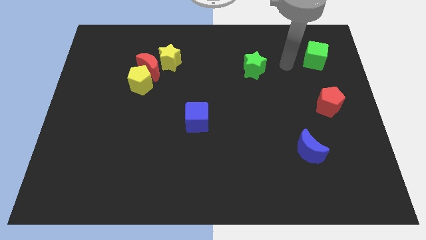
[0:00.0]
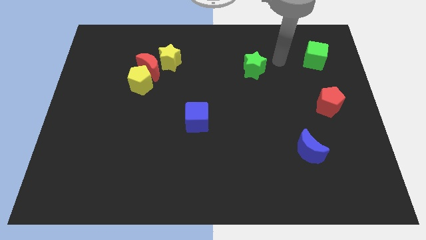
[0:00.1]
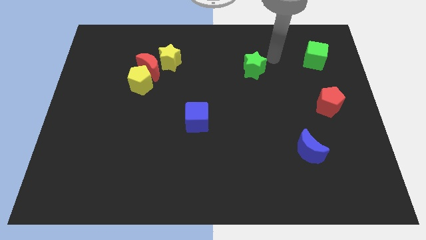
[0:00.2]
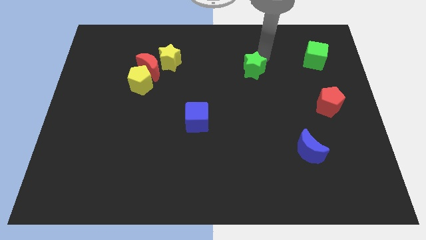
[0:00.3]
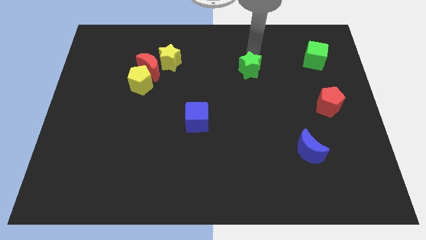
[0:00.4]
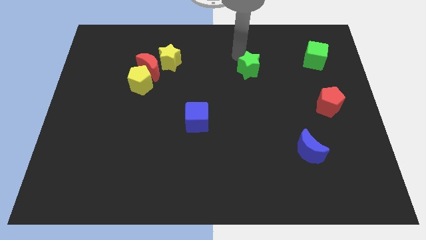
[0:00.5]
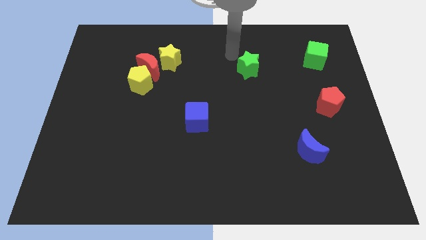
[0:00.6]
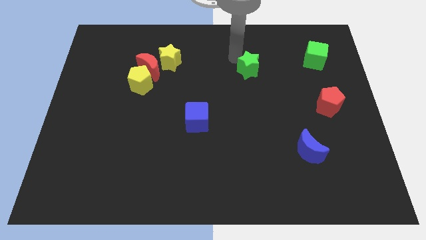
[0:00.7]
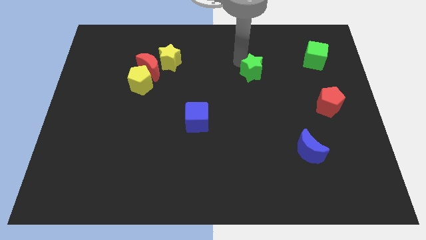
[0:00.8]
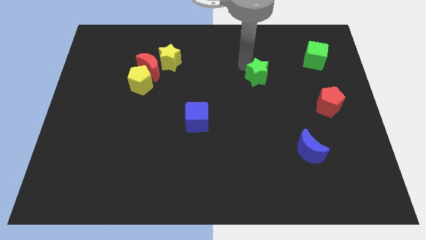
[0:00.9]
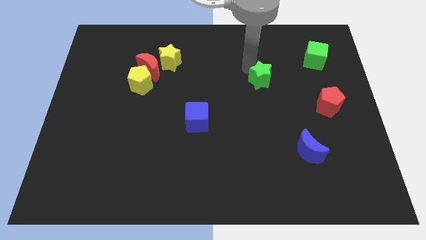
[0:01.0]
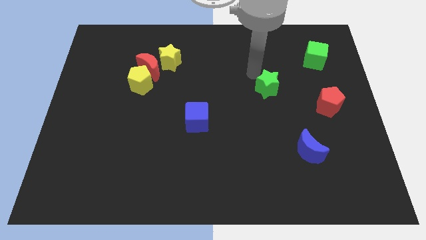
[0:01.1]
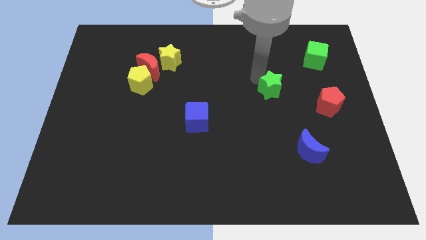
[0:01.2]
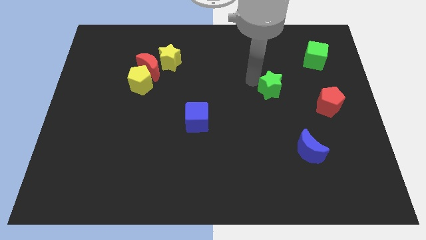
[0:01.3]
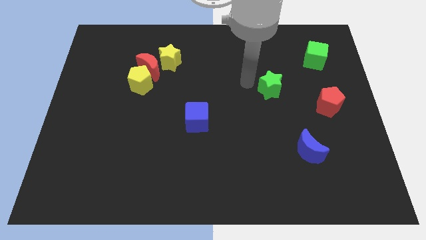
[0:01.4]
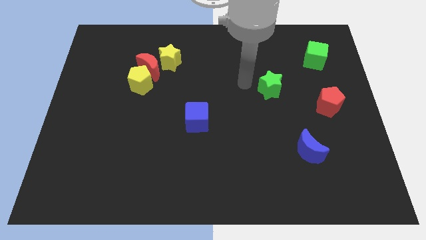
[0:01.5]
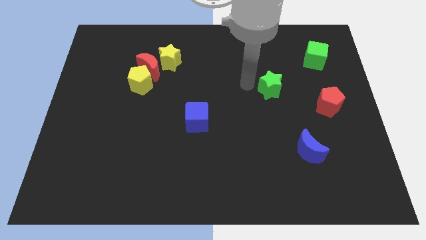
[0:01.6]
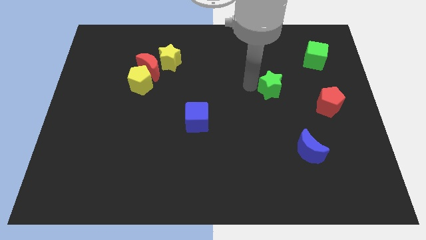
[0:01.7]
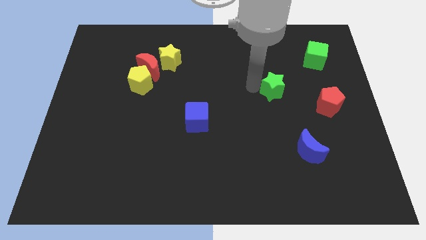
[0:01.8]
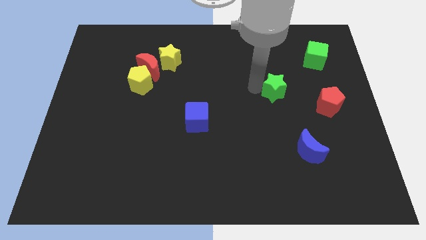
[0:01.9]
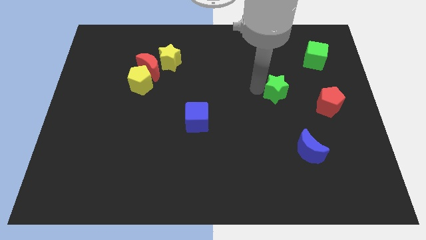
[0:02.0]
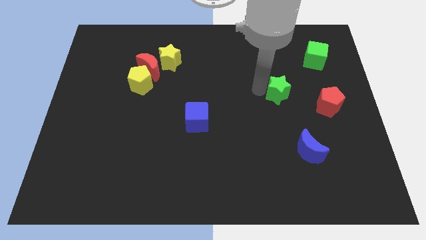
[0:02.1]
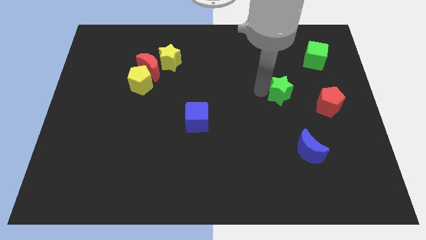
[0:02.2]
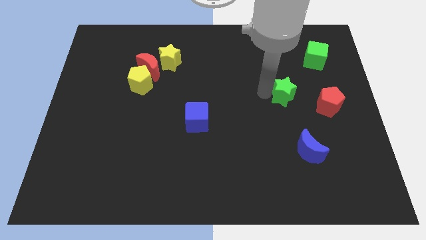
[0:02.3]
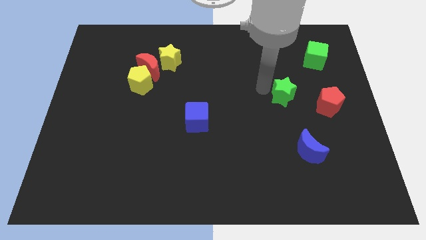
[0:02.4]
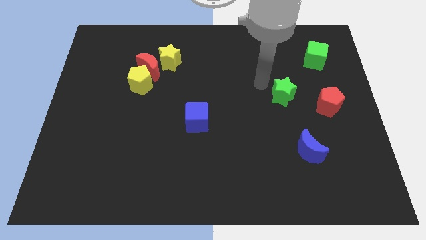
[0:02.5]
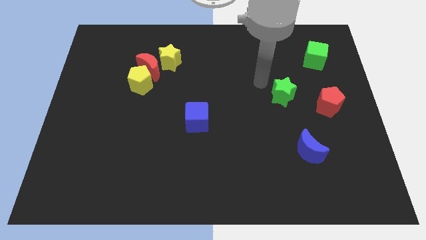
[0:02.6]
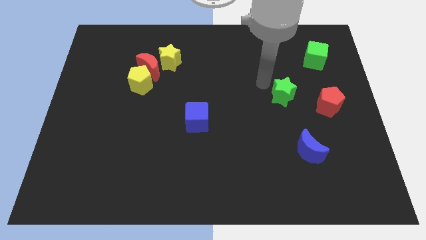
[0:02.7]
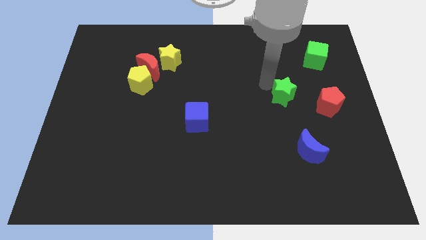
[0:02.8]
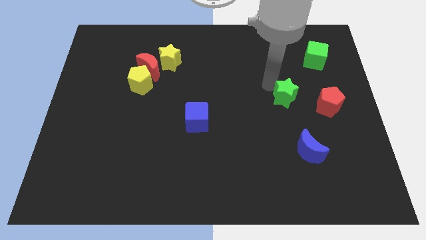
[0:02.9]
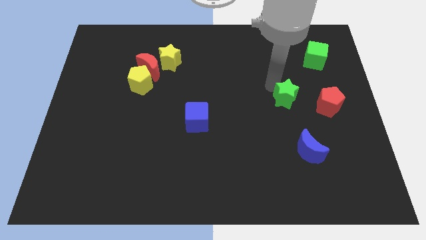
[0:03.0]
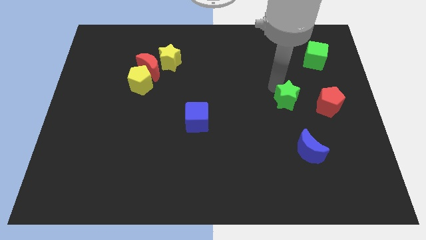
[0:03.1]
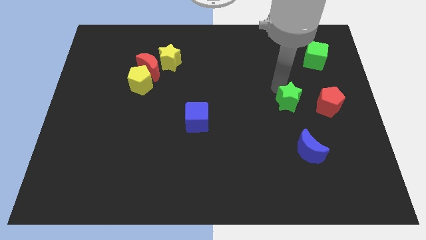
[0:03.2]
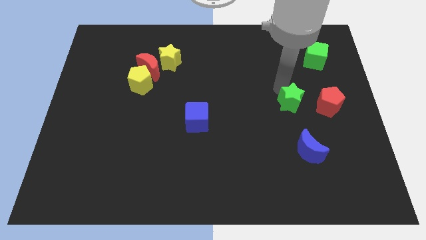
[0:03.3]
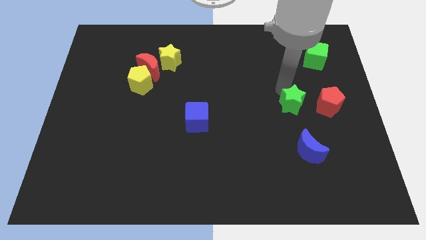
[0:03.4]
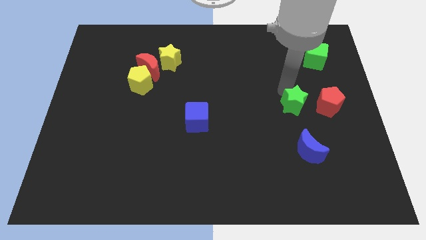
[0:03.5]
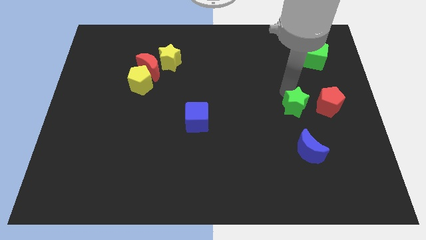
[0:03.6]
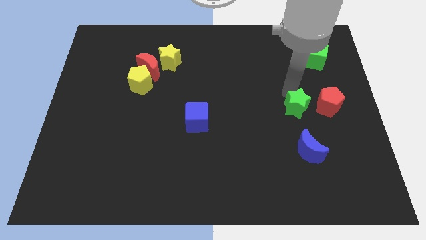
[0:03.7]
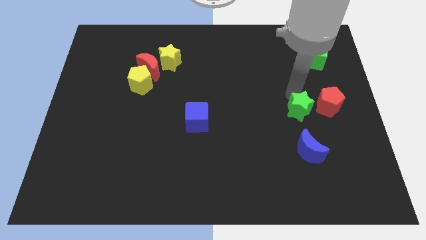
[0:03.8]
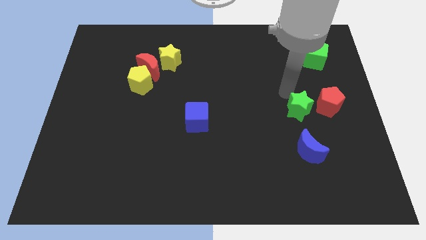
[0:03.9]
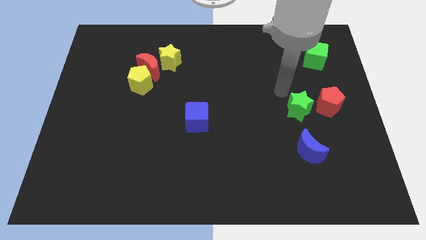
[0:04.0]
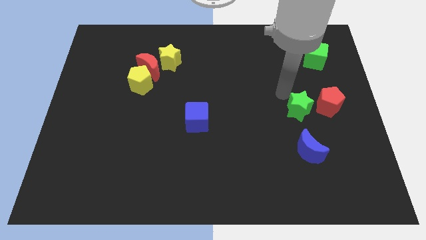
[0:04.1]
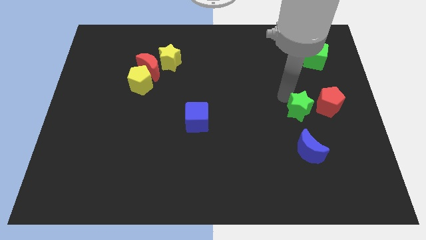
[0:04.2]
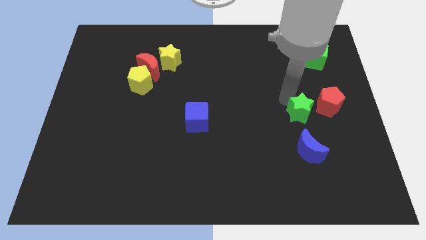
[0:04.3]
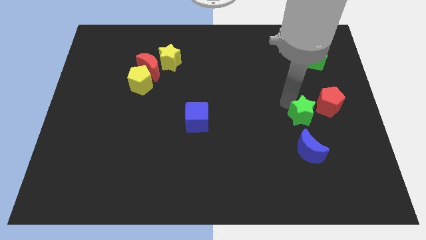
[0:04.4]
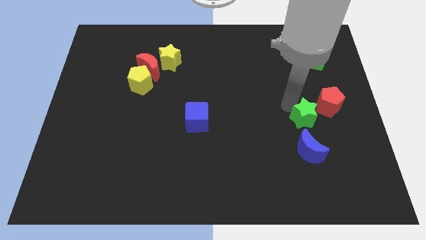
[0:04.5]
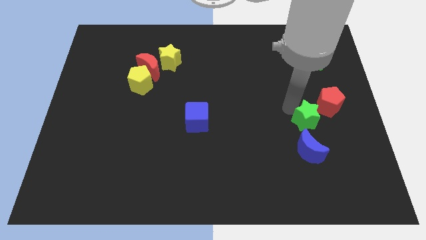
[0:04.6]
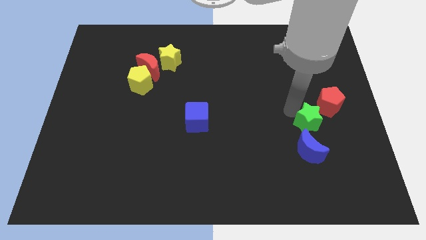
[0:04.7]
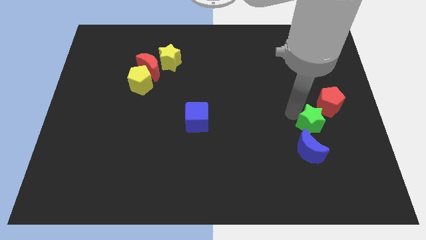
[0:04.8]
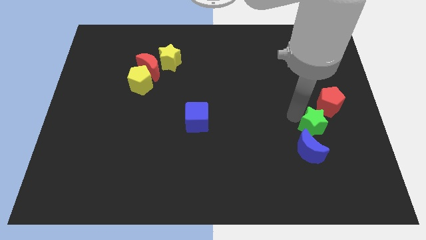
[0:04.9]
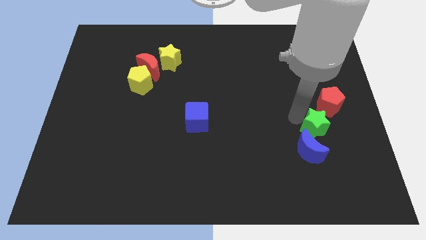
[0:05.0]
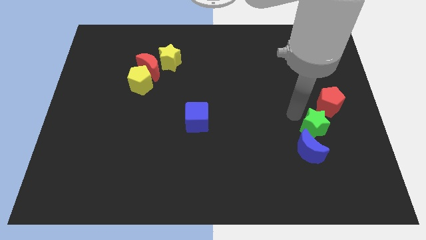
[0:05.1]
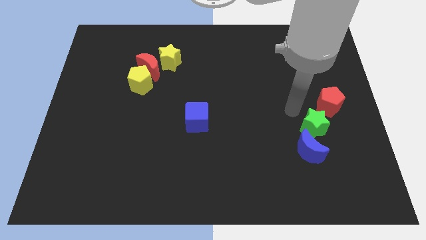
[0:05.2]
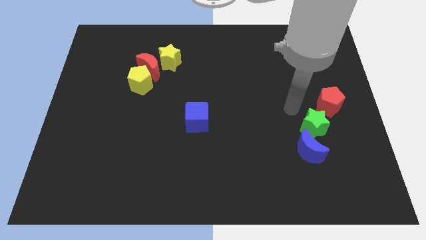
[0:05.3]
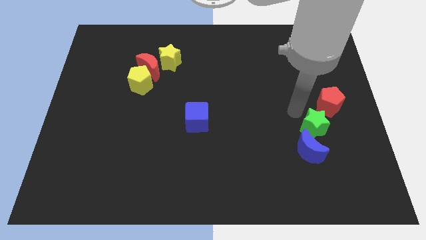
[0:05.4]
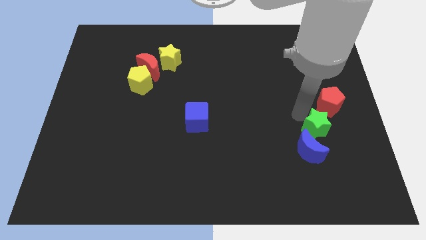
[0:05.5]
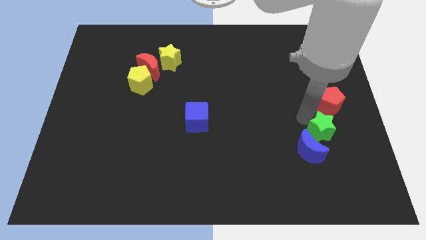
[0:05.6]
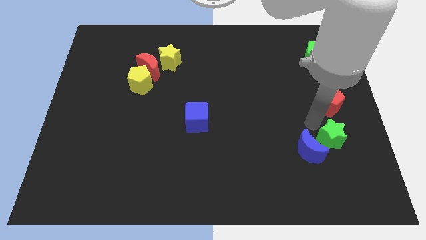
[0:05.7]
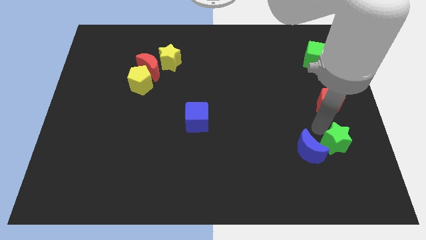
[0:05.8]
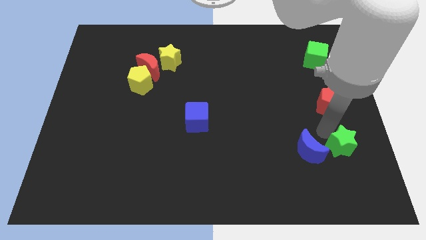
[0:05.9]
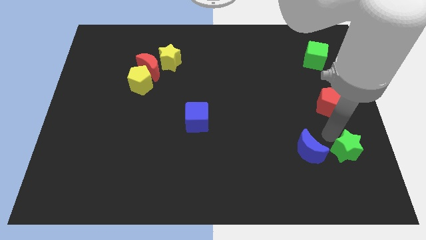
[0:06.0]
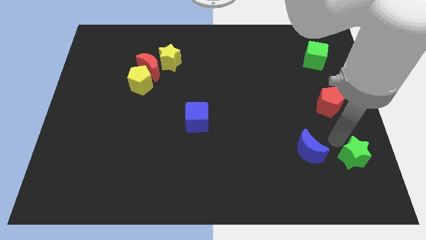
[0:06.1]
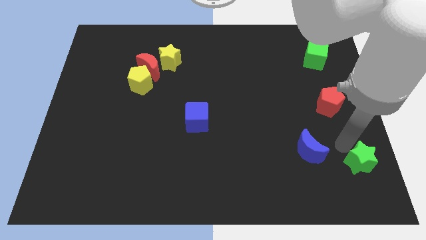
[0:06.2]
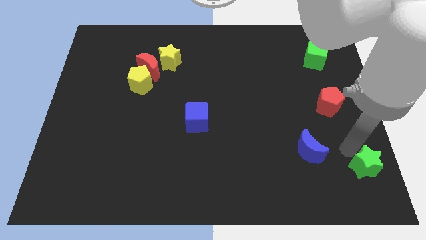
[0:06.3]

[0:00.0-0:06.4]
slide the green star to the bottom right of the board
